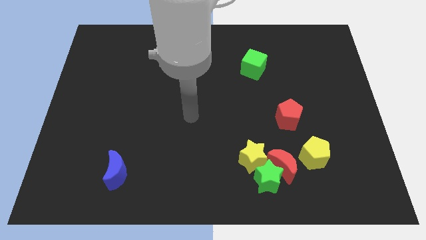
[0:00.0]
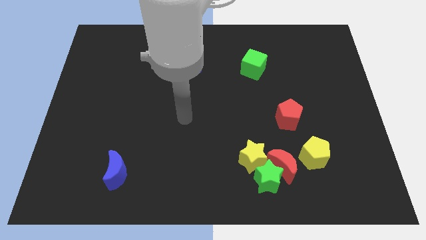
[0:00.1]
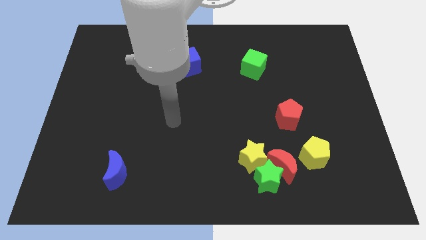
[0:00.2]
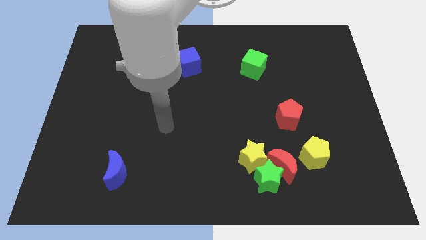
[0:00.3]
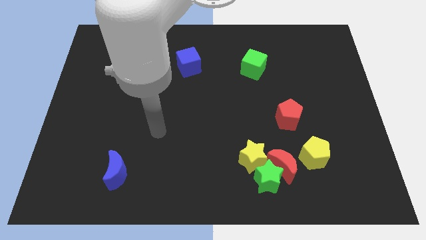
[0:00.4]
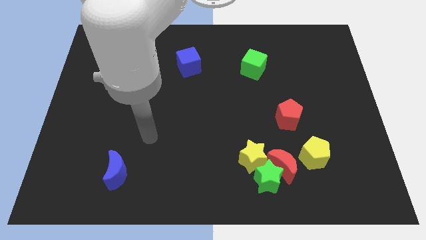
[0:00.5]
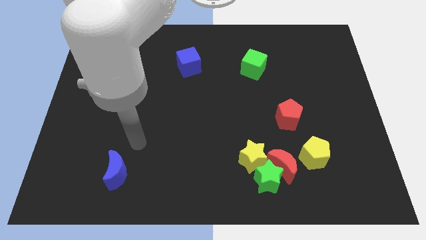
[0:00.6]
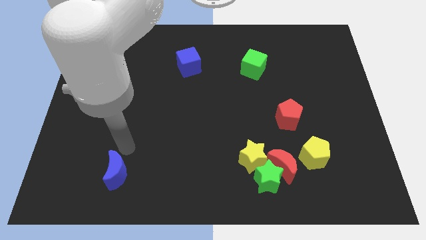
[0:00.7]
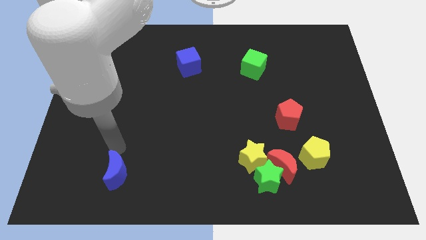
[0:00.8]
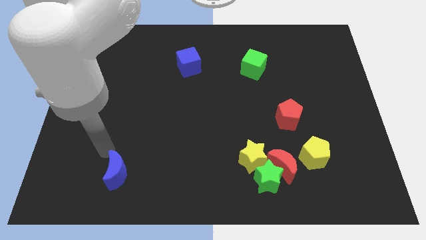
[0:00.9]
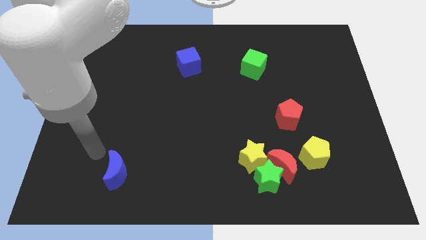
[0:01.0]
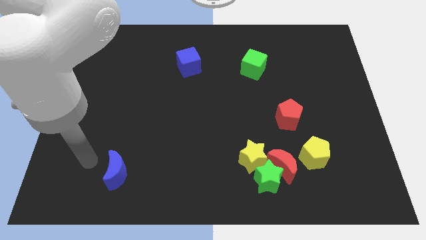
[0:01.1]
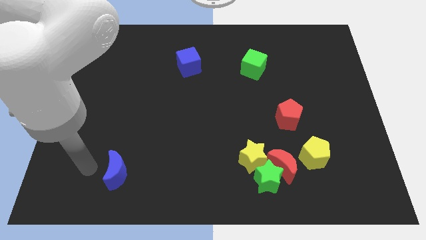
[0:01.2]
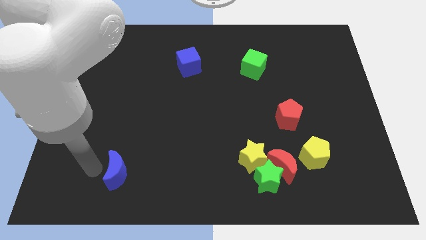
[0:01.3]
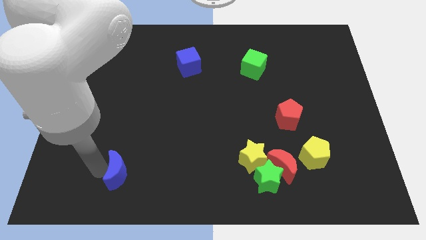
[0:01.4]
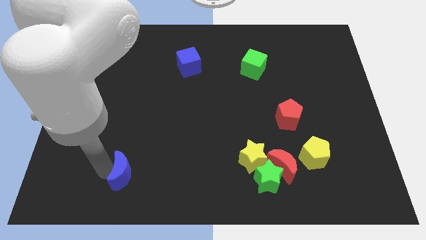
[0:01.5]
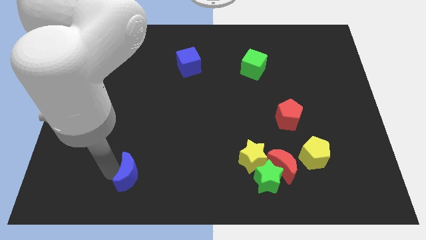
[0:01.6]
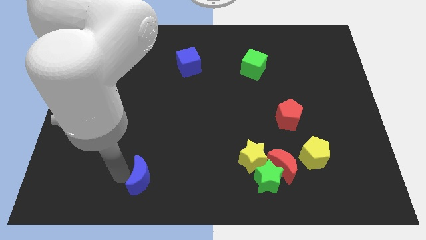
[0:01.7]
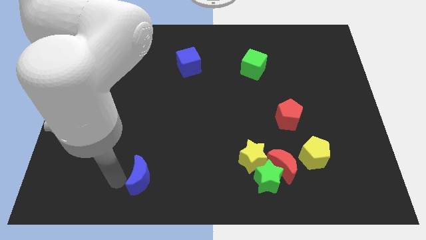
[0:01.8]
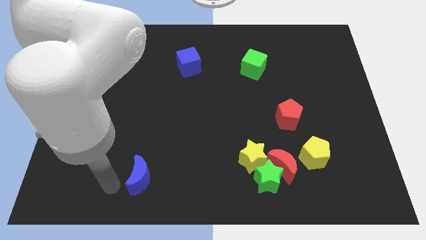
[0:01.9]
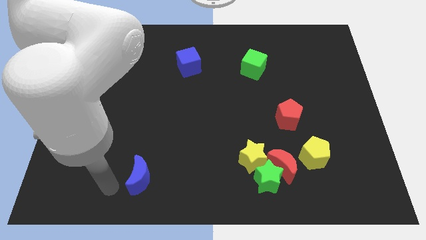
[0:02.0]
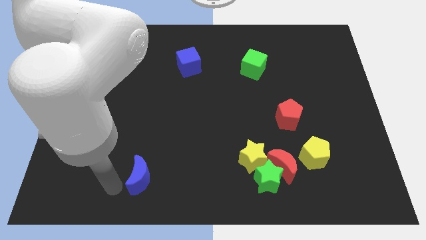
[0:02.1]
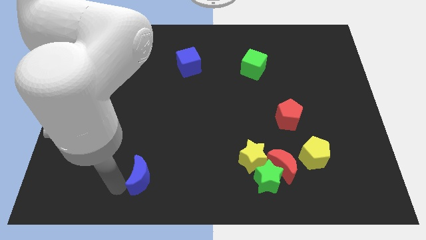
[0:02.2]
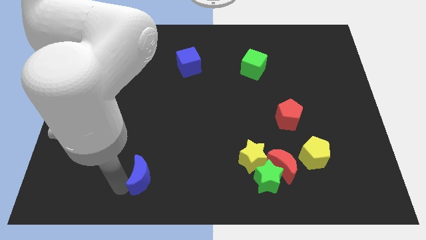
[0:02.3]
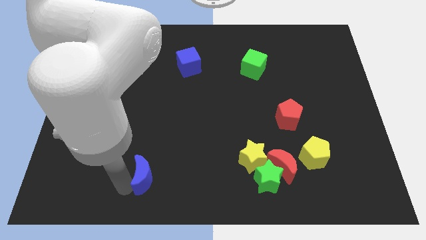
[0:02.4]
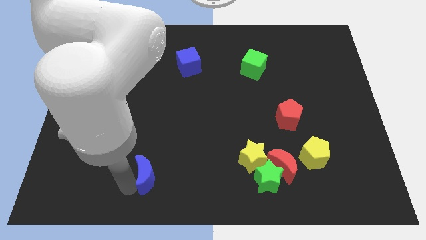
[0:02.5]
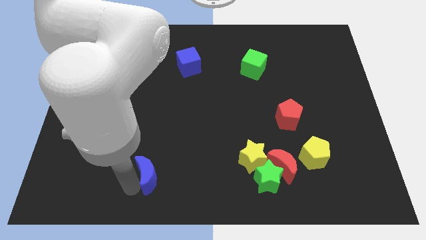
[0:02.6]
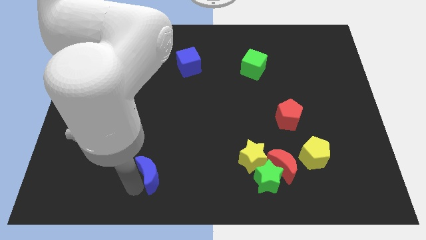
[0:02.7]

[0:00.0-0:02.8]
slide the blue moon right a little

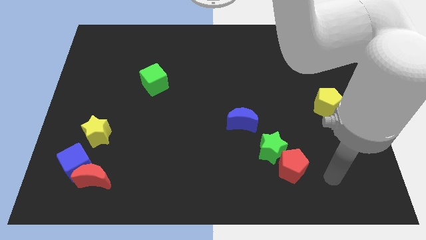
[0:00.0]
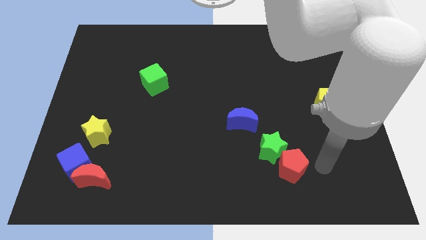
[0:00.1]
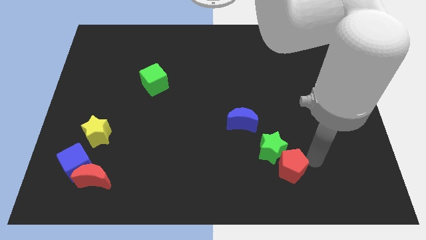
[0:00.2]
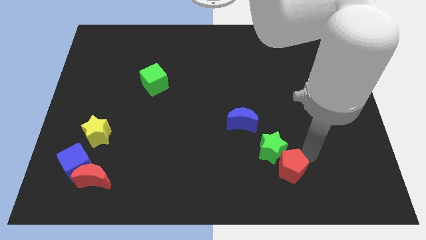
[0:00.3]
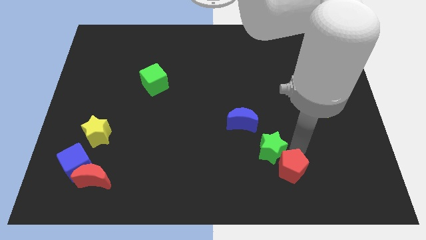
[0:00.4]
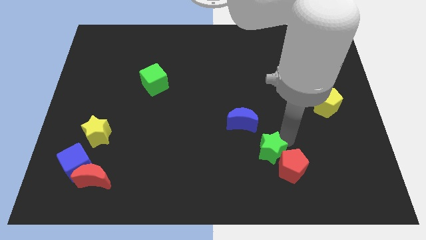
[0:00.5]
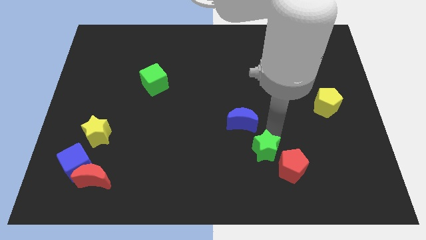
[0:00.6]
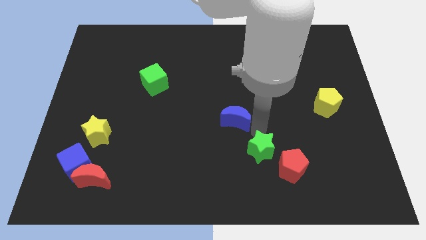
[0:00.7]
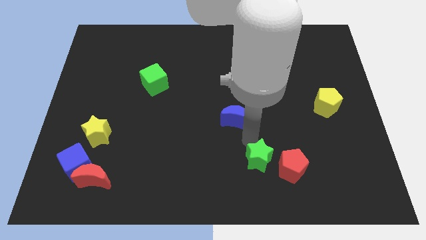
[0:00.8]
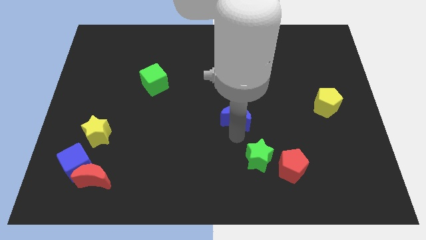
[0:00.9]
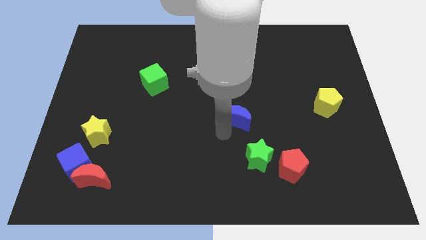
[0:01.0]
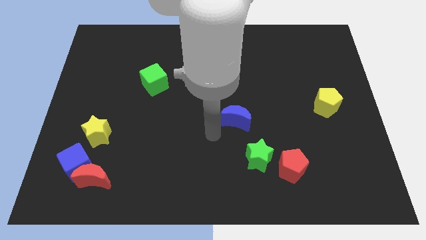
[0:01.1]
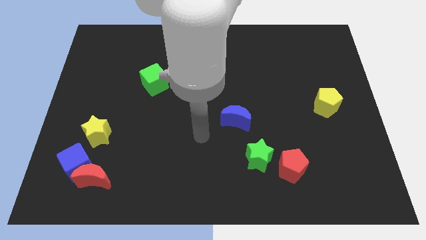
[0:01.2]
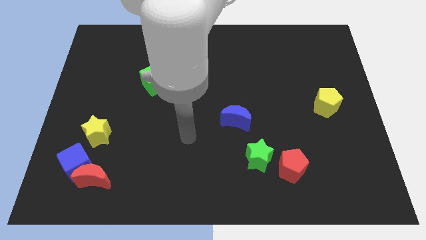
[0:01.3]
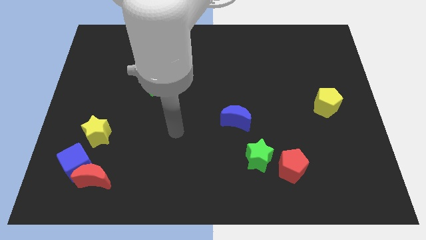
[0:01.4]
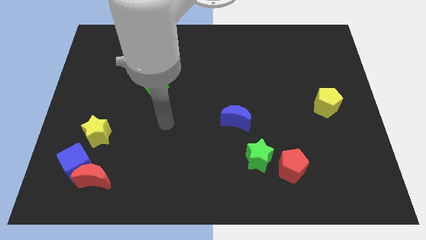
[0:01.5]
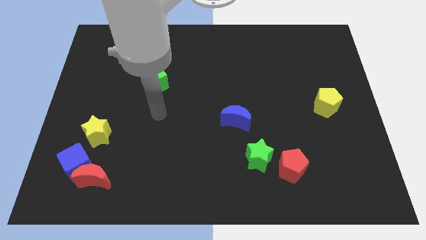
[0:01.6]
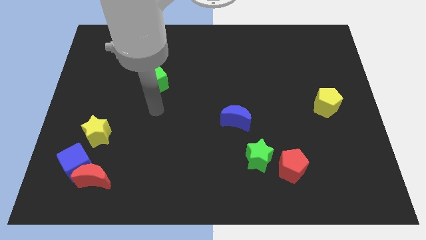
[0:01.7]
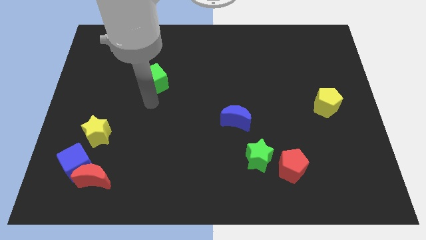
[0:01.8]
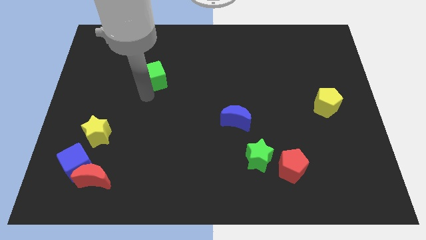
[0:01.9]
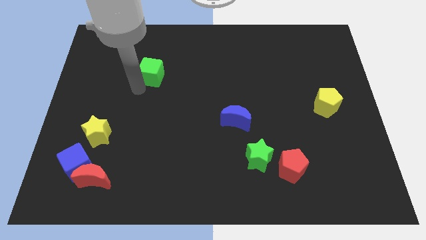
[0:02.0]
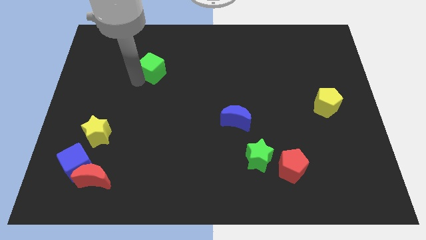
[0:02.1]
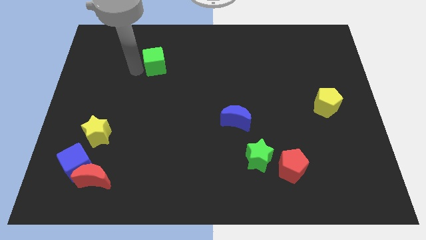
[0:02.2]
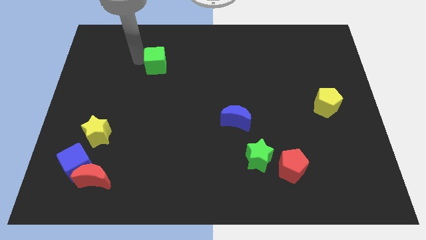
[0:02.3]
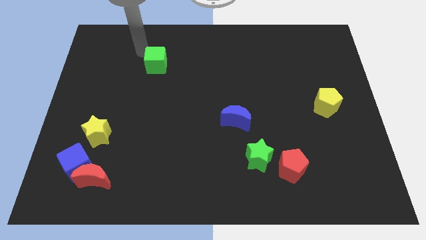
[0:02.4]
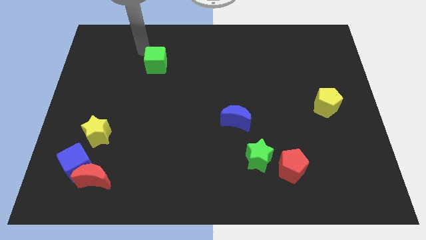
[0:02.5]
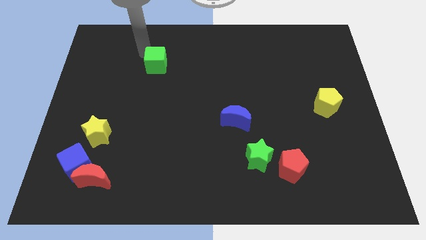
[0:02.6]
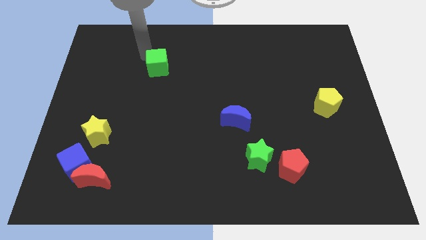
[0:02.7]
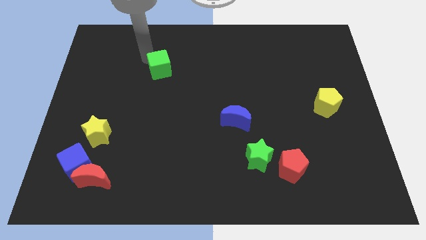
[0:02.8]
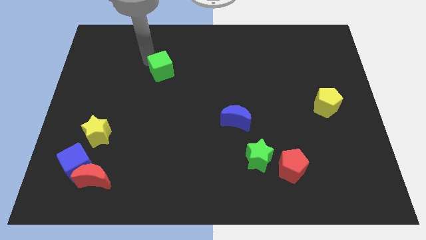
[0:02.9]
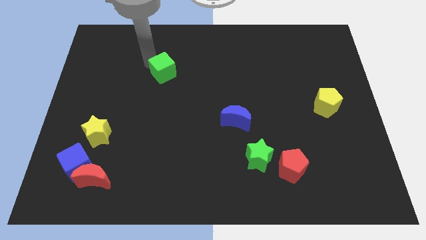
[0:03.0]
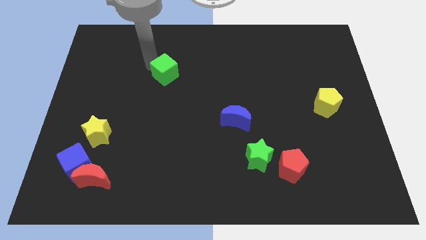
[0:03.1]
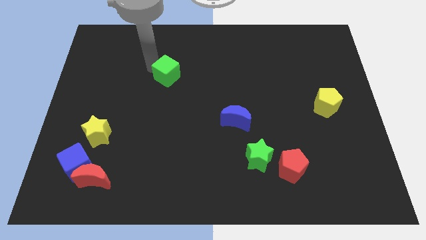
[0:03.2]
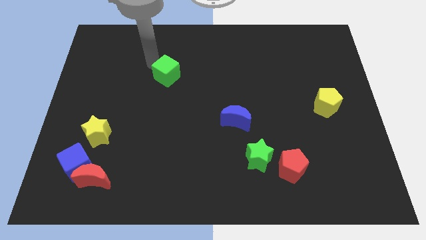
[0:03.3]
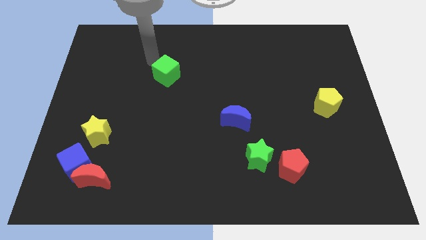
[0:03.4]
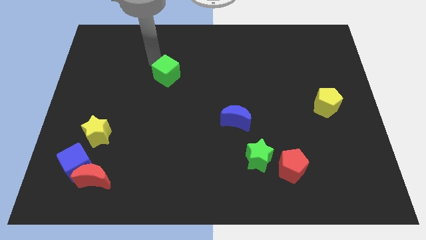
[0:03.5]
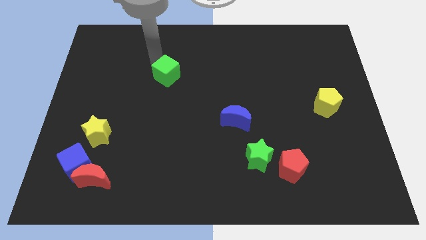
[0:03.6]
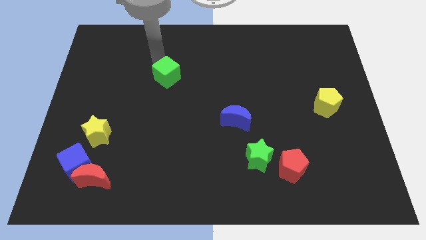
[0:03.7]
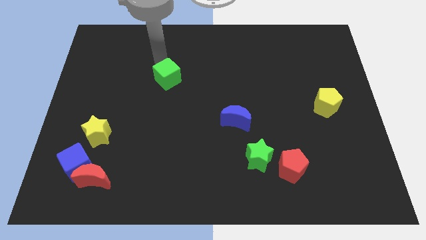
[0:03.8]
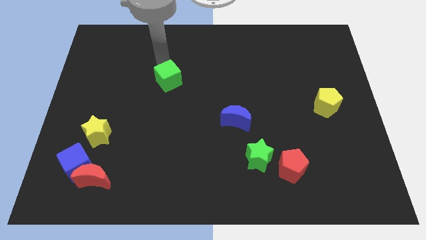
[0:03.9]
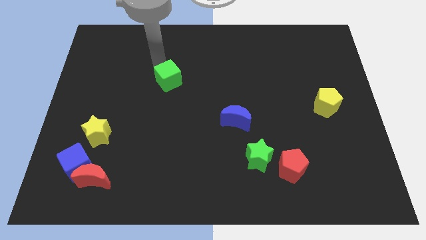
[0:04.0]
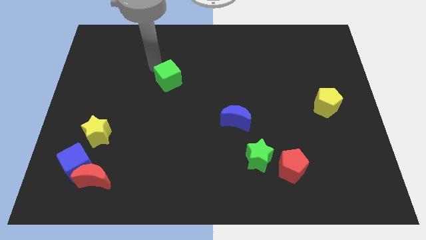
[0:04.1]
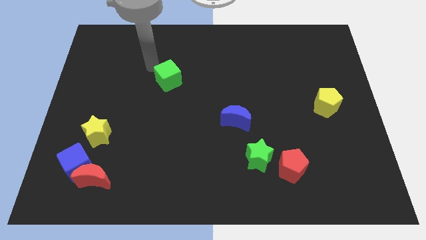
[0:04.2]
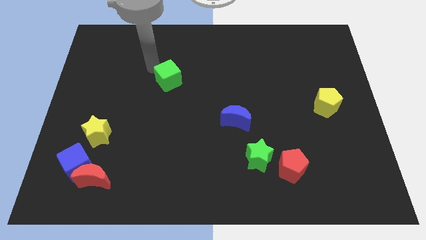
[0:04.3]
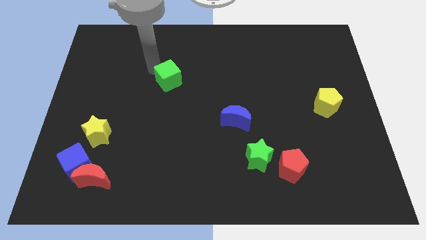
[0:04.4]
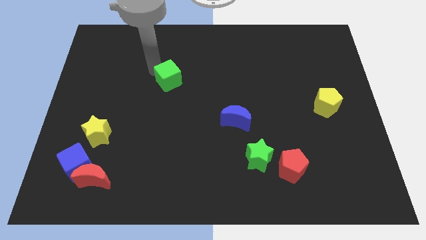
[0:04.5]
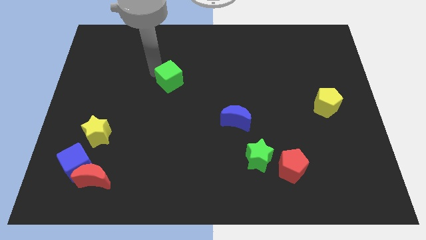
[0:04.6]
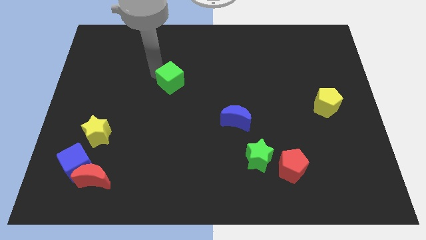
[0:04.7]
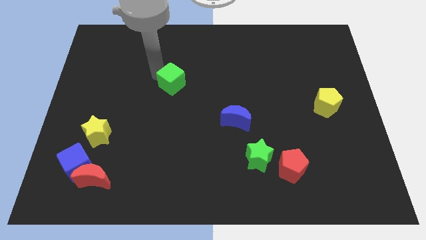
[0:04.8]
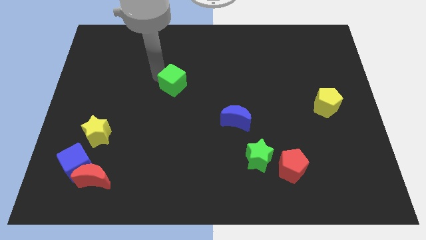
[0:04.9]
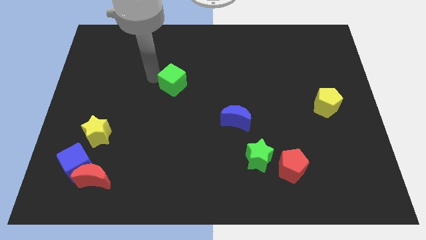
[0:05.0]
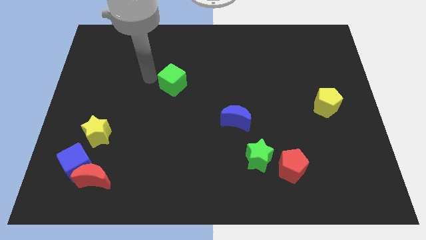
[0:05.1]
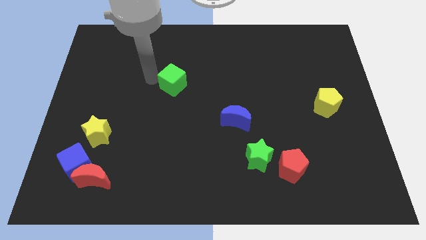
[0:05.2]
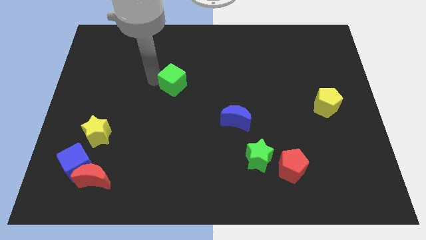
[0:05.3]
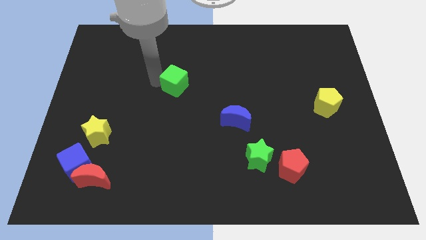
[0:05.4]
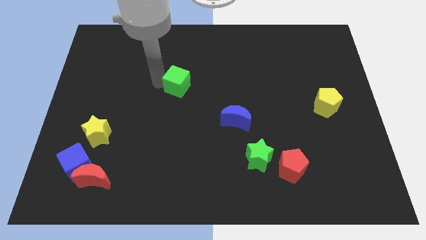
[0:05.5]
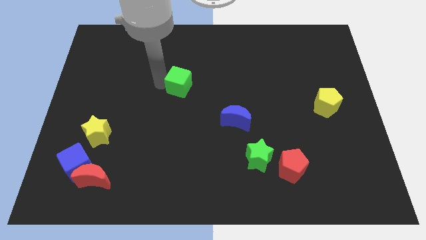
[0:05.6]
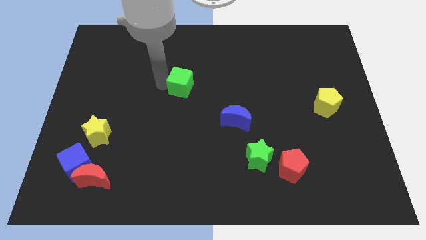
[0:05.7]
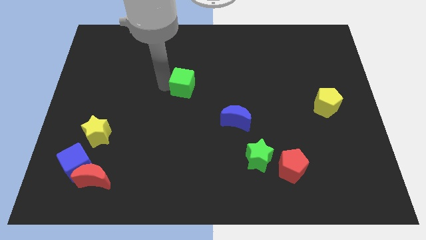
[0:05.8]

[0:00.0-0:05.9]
slide the green cube a bit right
